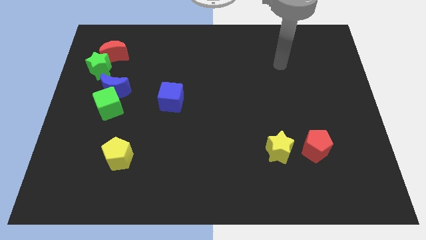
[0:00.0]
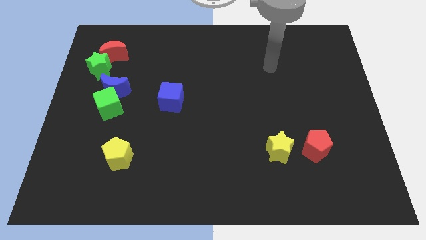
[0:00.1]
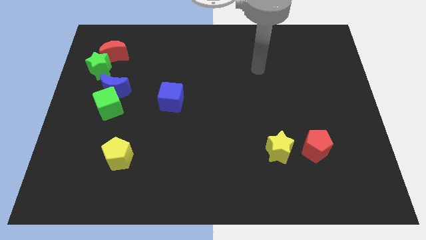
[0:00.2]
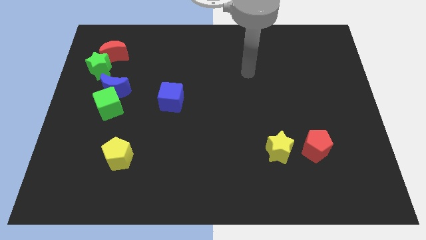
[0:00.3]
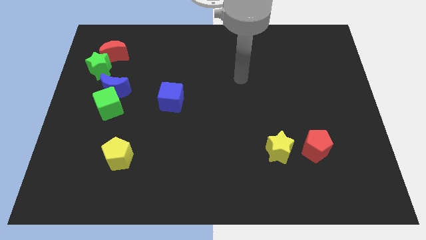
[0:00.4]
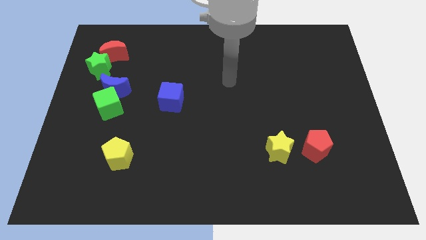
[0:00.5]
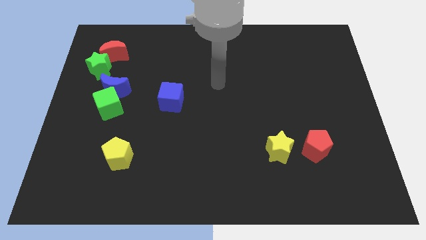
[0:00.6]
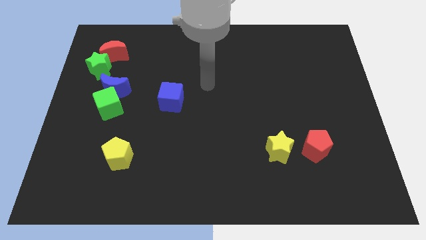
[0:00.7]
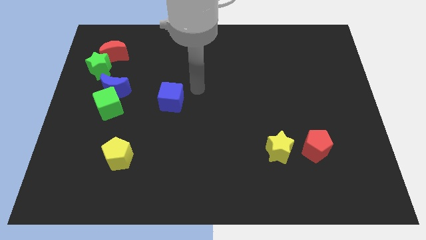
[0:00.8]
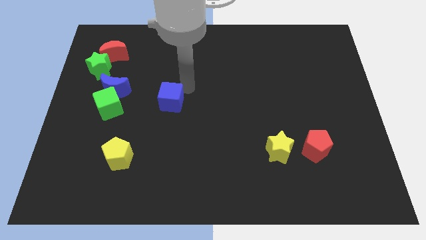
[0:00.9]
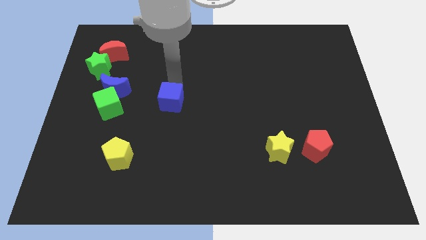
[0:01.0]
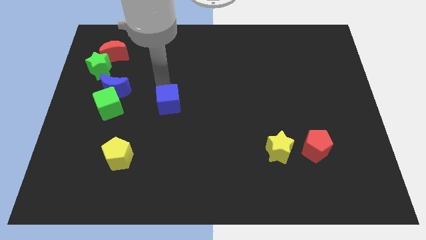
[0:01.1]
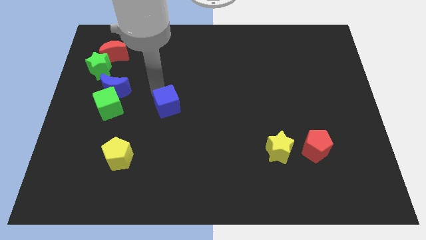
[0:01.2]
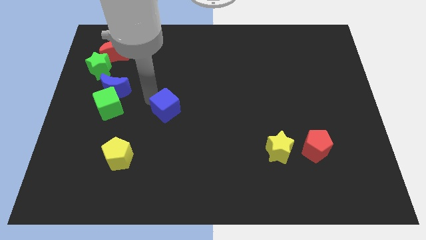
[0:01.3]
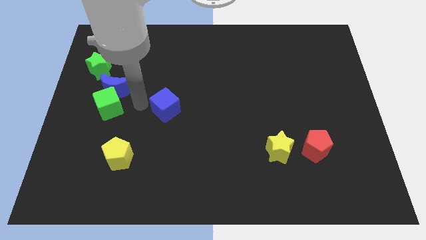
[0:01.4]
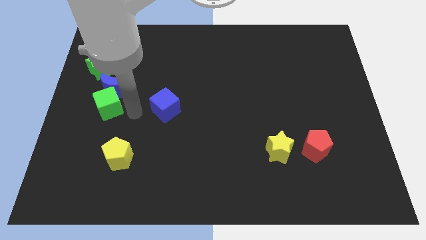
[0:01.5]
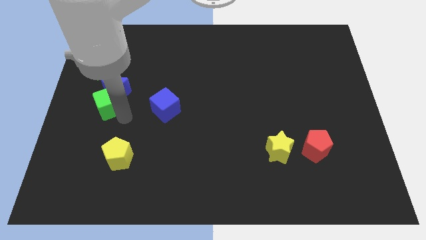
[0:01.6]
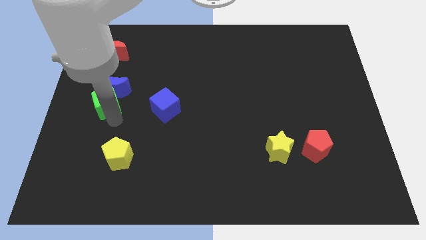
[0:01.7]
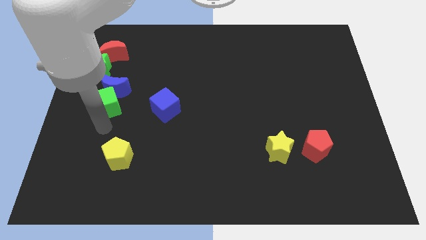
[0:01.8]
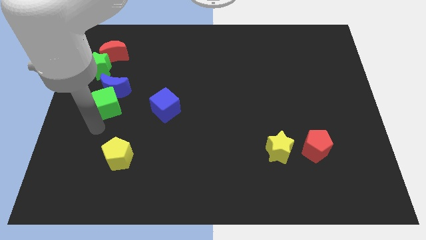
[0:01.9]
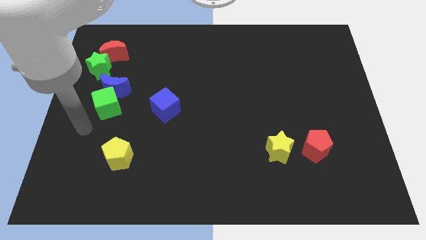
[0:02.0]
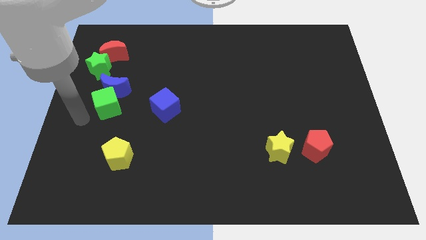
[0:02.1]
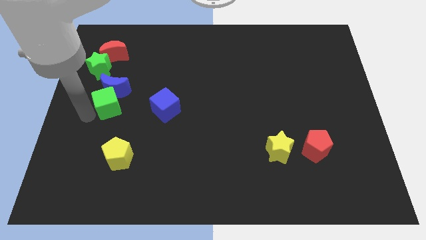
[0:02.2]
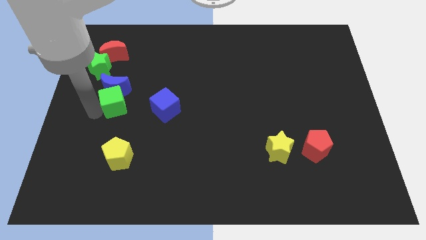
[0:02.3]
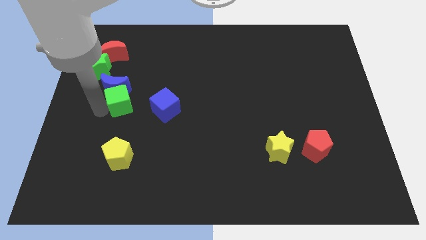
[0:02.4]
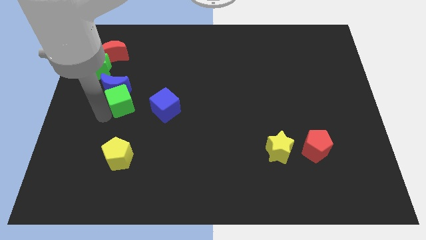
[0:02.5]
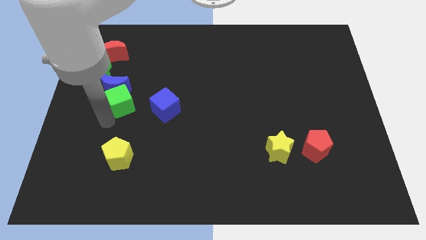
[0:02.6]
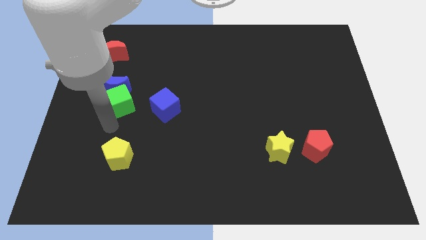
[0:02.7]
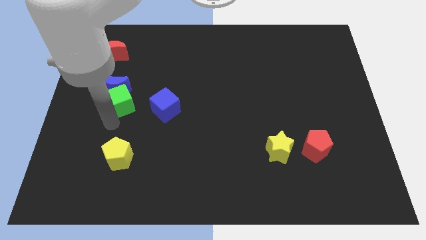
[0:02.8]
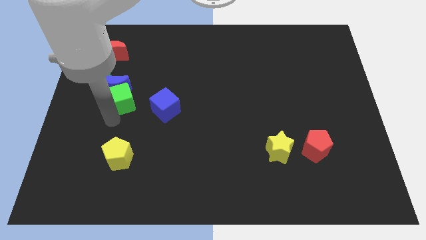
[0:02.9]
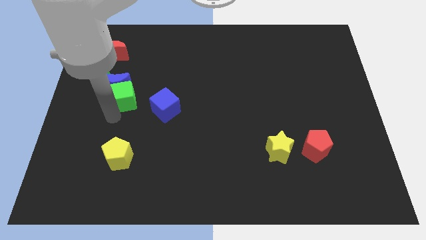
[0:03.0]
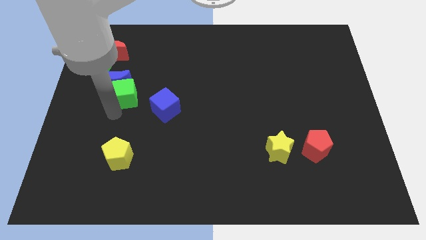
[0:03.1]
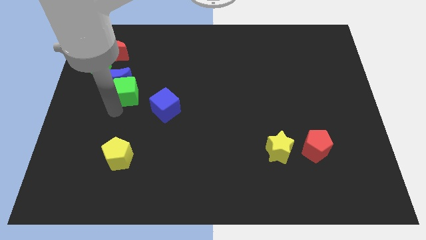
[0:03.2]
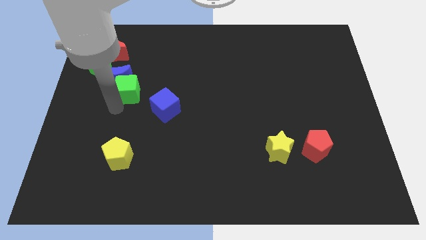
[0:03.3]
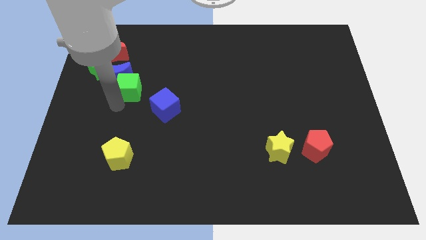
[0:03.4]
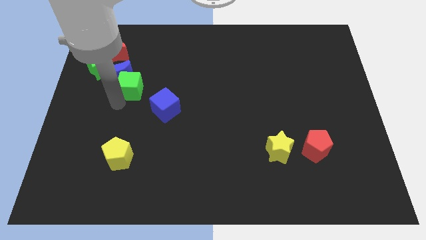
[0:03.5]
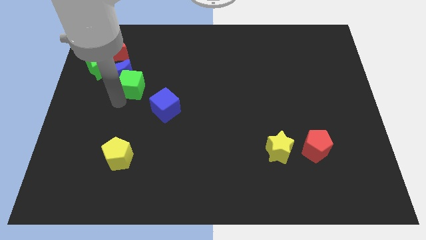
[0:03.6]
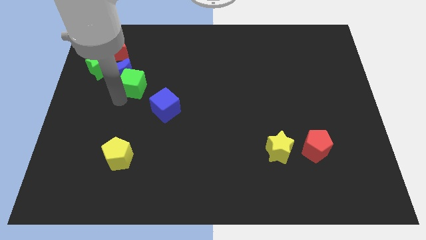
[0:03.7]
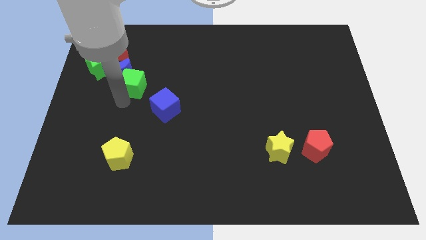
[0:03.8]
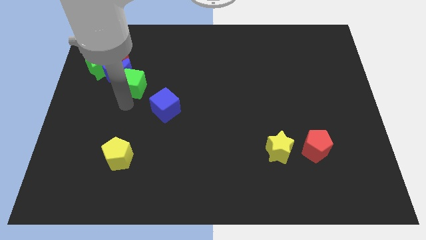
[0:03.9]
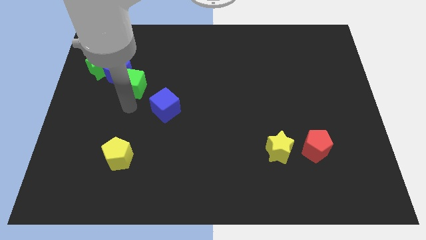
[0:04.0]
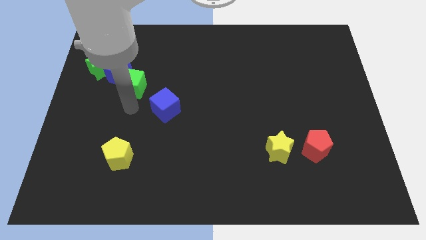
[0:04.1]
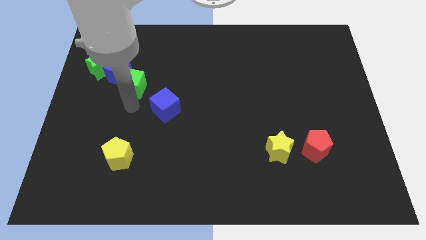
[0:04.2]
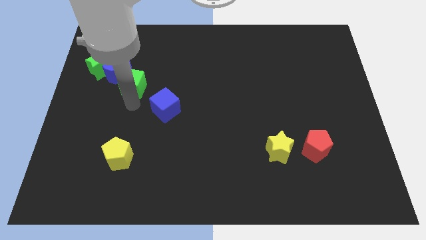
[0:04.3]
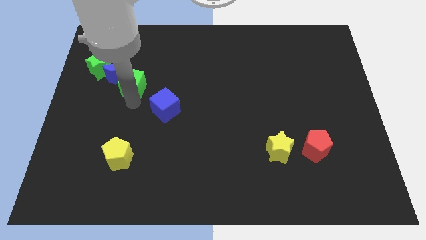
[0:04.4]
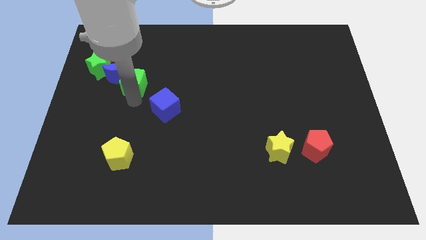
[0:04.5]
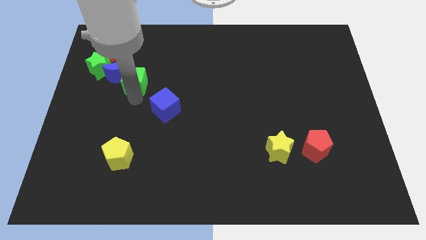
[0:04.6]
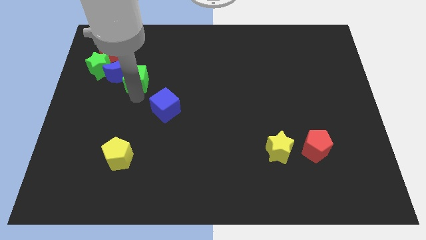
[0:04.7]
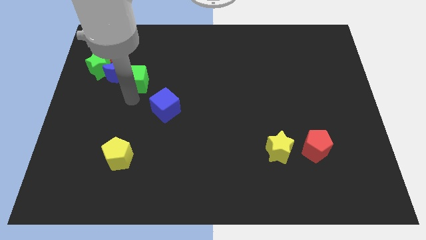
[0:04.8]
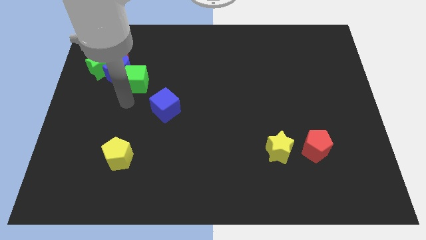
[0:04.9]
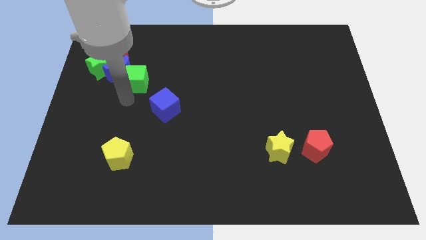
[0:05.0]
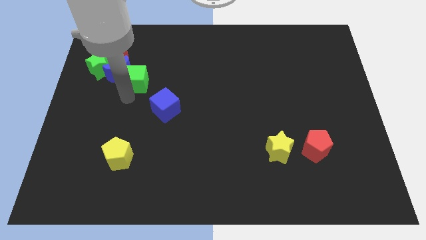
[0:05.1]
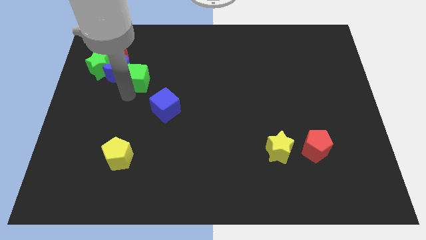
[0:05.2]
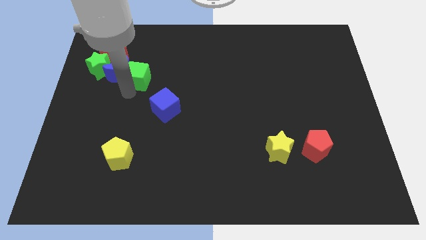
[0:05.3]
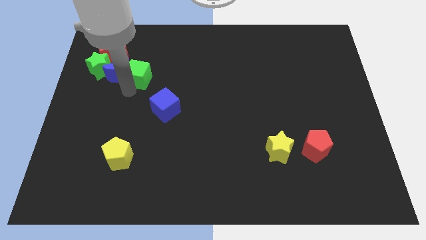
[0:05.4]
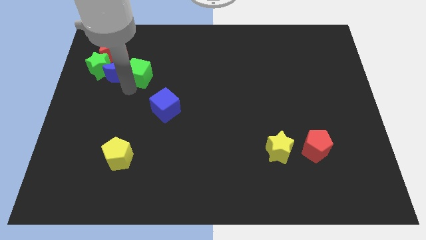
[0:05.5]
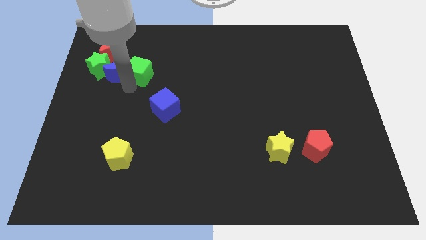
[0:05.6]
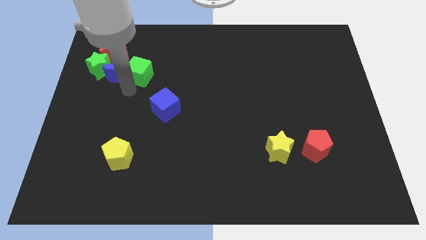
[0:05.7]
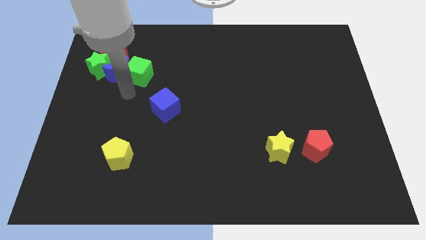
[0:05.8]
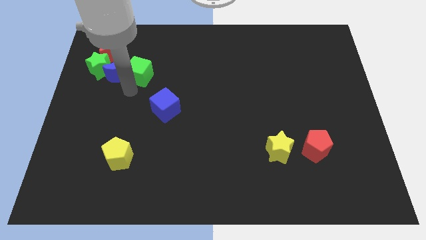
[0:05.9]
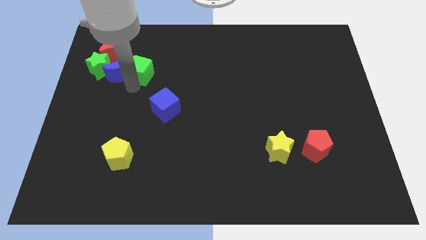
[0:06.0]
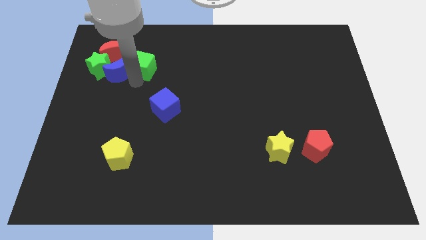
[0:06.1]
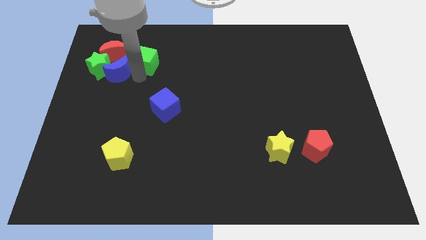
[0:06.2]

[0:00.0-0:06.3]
slide the green cube to the right of the red moon

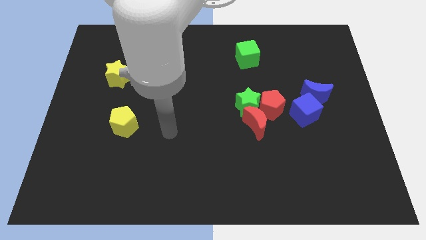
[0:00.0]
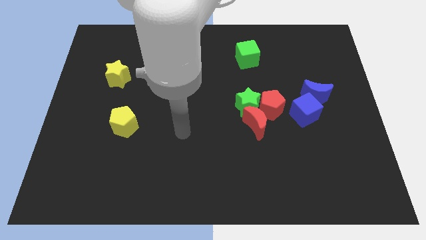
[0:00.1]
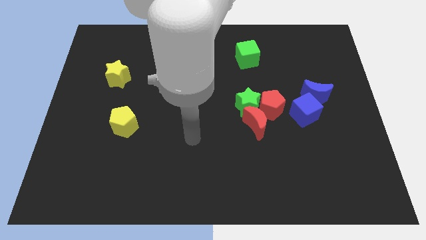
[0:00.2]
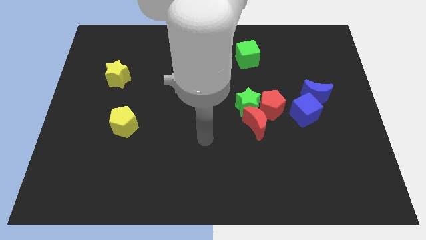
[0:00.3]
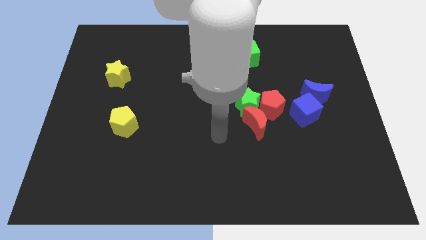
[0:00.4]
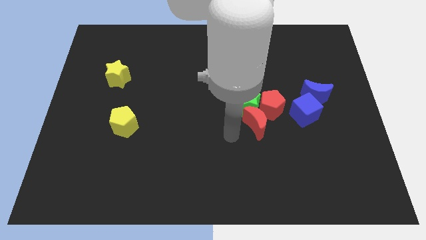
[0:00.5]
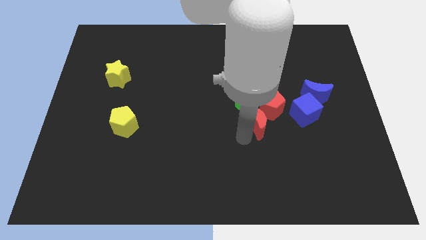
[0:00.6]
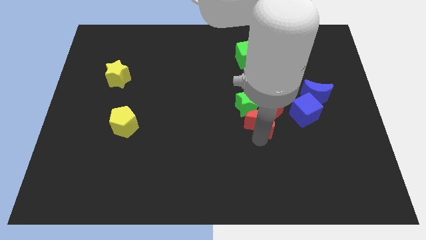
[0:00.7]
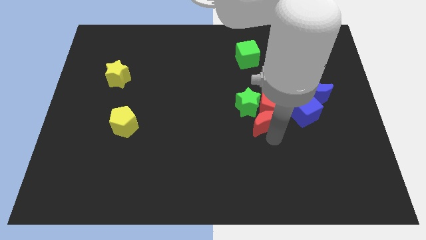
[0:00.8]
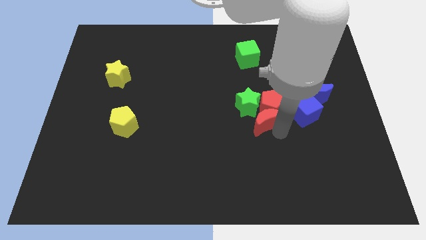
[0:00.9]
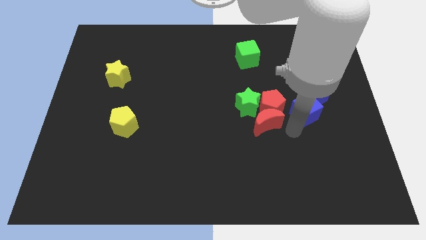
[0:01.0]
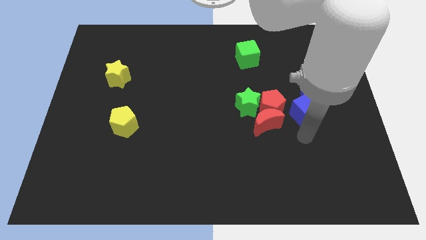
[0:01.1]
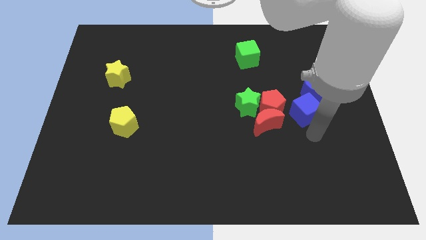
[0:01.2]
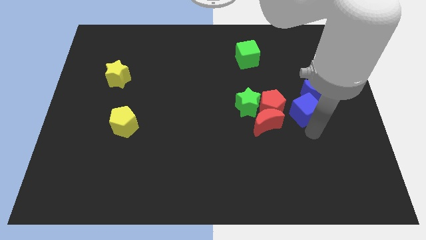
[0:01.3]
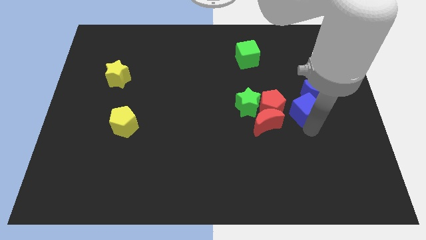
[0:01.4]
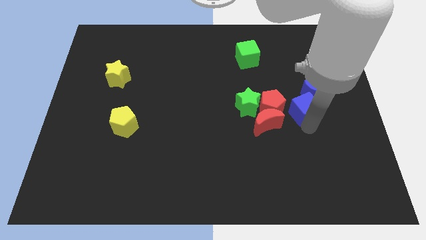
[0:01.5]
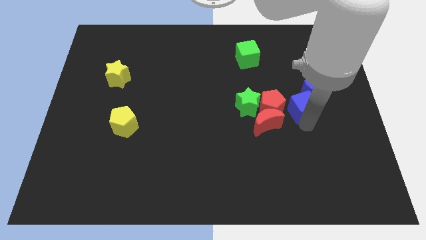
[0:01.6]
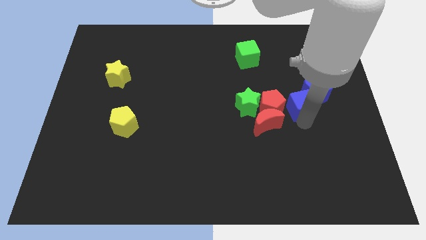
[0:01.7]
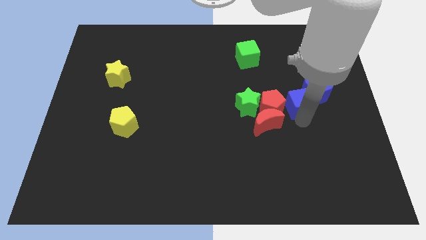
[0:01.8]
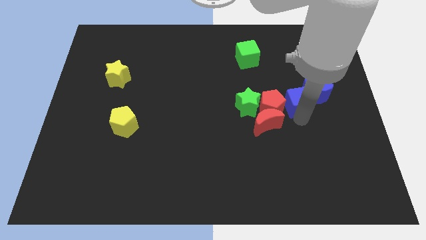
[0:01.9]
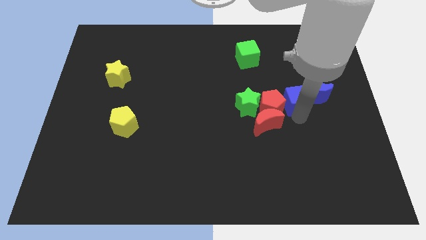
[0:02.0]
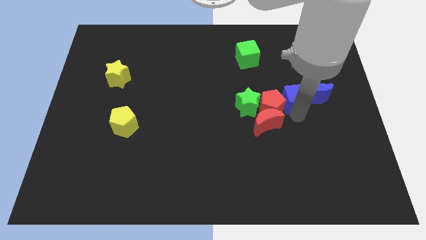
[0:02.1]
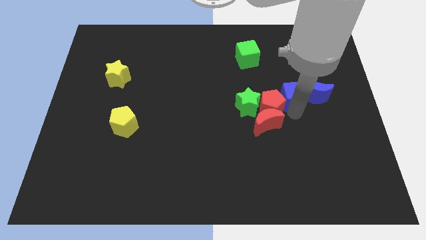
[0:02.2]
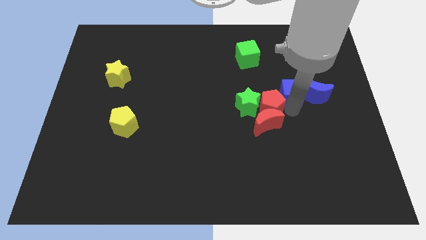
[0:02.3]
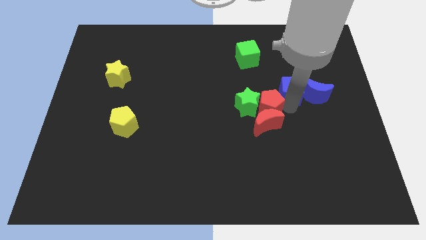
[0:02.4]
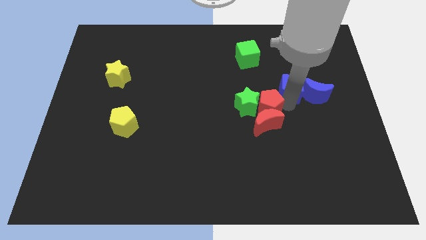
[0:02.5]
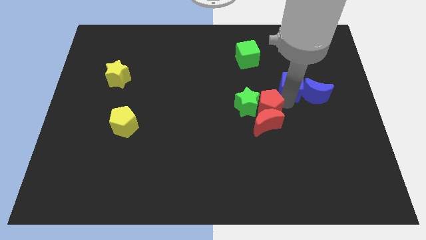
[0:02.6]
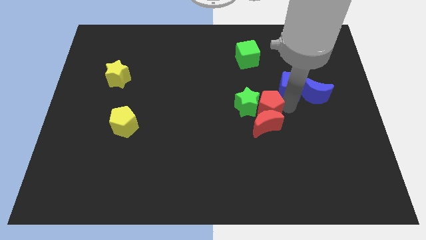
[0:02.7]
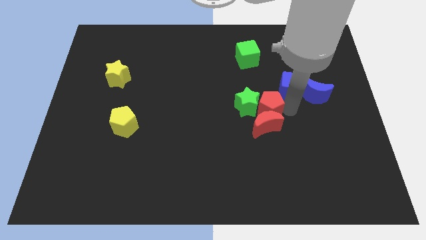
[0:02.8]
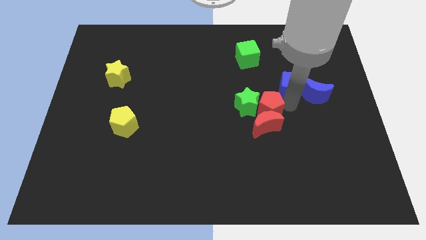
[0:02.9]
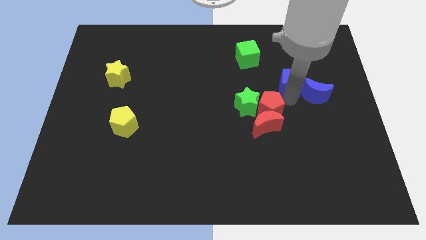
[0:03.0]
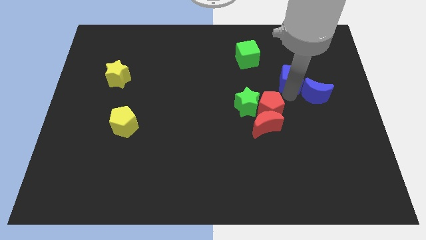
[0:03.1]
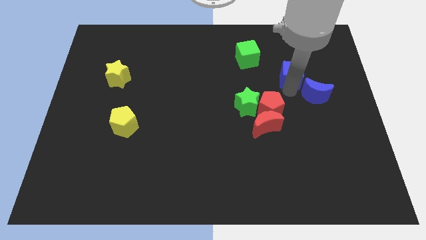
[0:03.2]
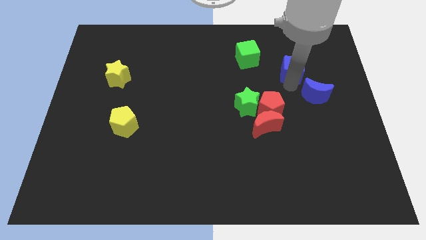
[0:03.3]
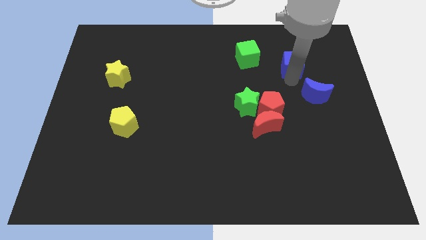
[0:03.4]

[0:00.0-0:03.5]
put the blue cube to the right side of the green cube
